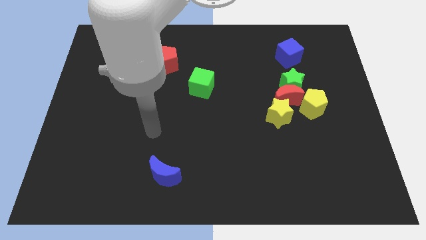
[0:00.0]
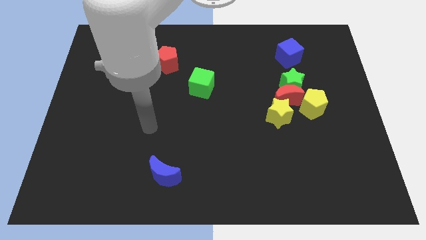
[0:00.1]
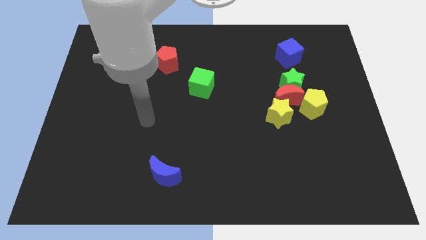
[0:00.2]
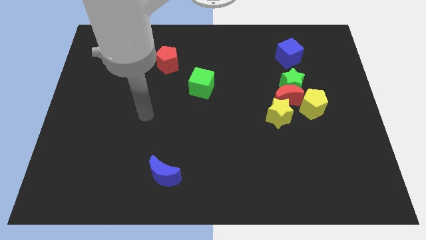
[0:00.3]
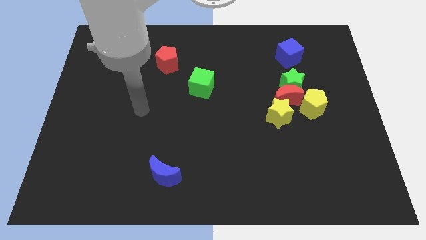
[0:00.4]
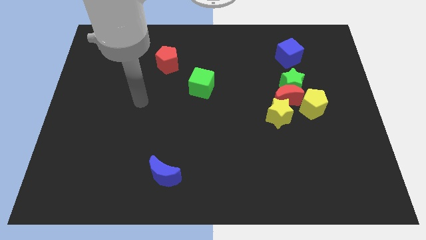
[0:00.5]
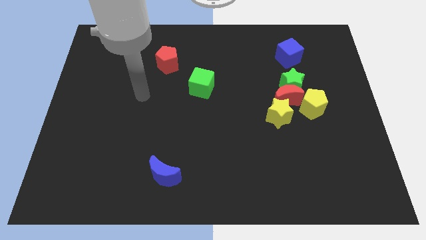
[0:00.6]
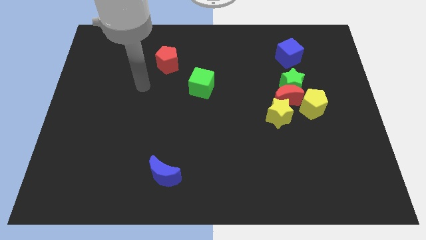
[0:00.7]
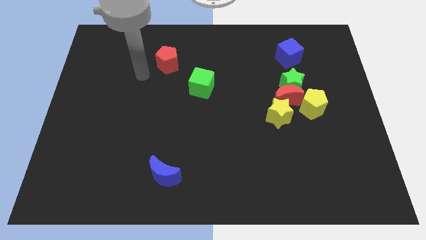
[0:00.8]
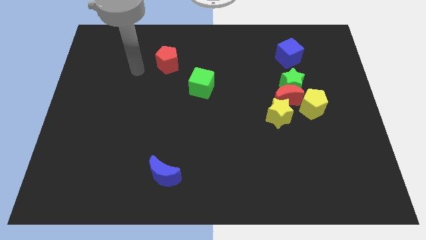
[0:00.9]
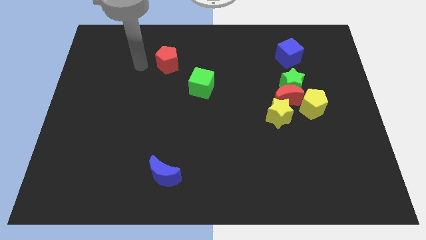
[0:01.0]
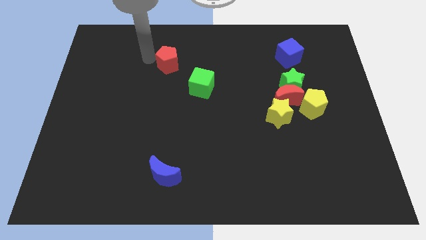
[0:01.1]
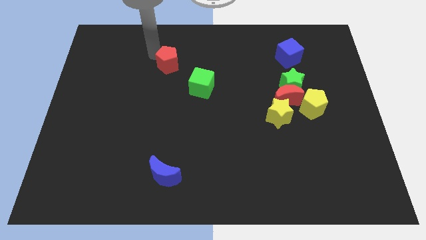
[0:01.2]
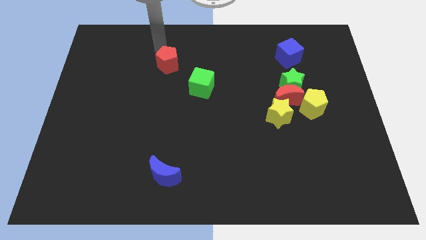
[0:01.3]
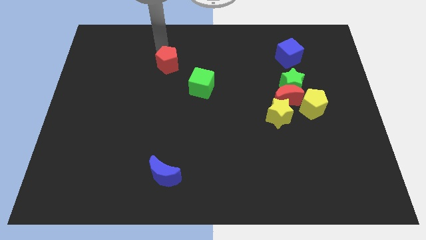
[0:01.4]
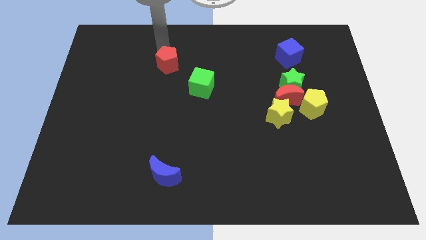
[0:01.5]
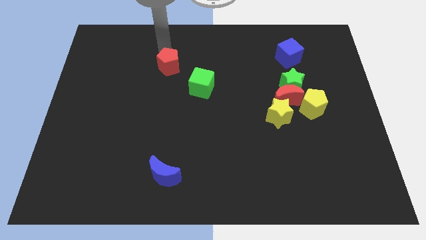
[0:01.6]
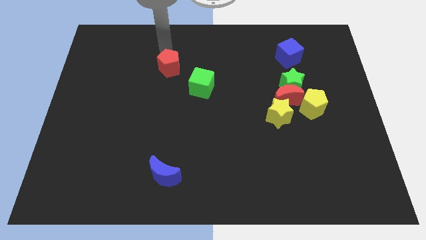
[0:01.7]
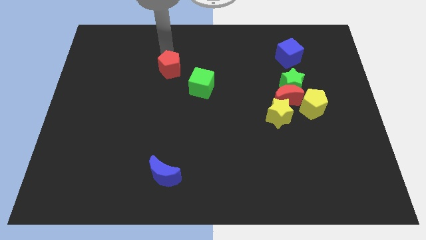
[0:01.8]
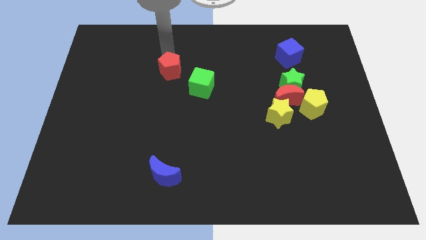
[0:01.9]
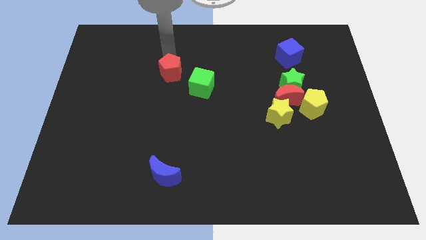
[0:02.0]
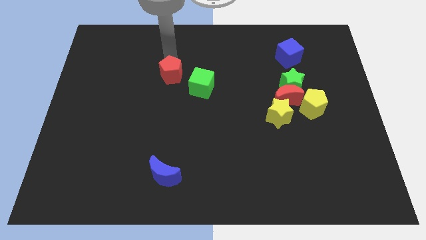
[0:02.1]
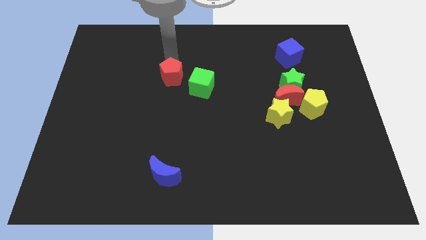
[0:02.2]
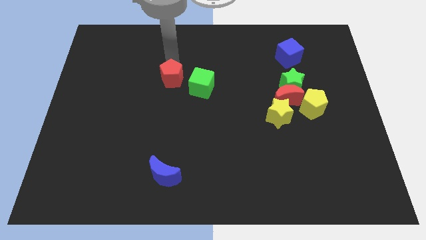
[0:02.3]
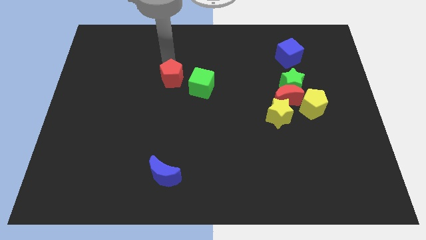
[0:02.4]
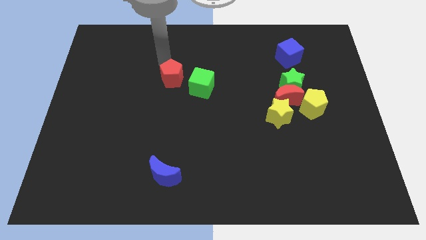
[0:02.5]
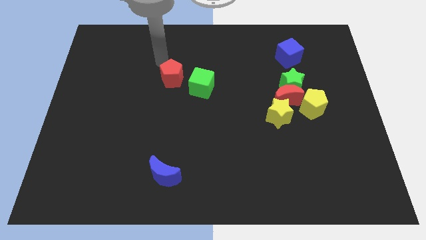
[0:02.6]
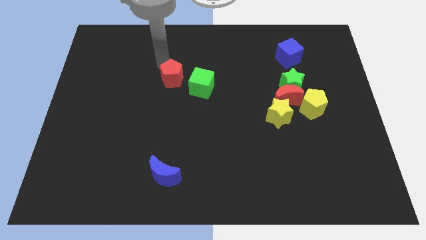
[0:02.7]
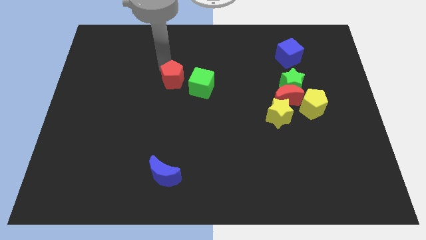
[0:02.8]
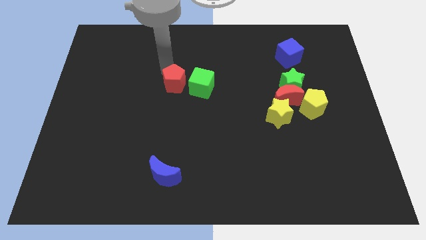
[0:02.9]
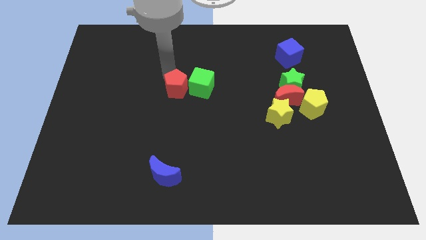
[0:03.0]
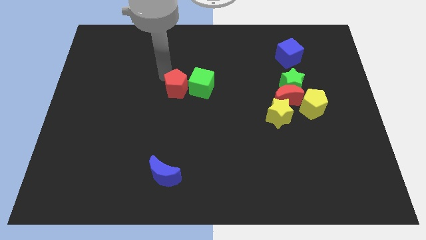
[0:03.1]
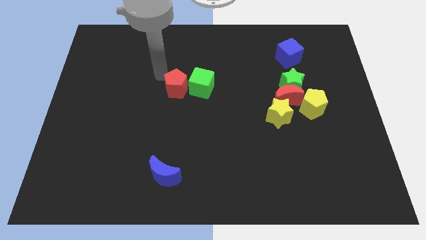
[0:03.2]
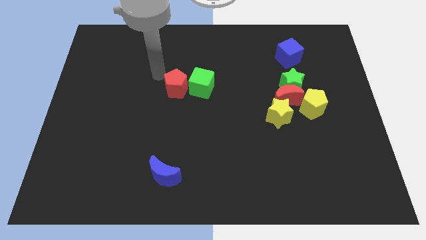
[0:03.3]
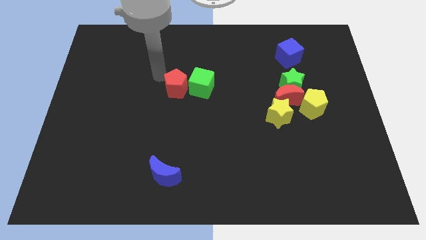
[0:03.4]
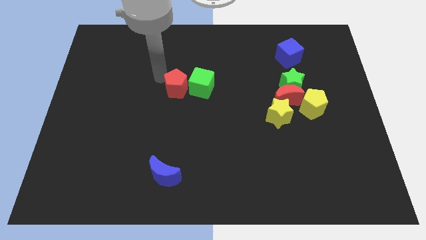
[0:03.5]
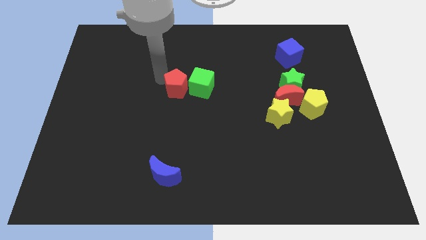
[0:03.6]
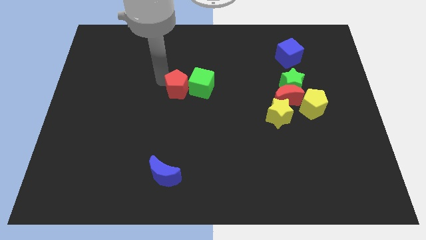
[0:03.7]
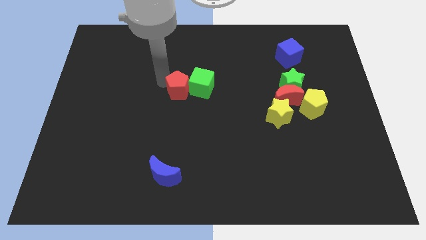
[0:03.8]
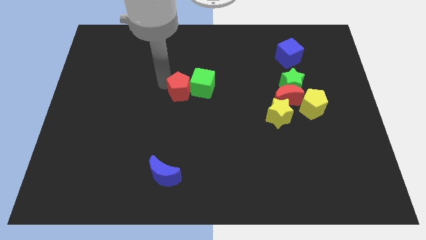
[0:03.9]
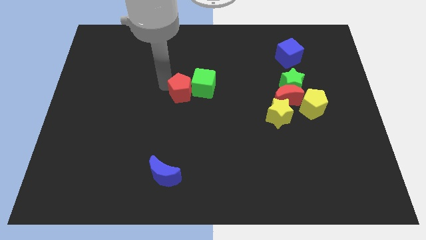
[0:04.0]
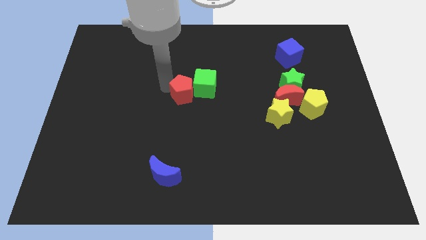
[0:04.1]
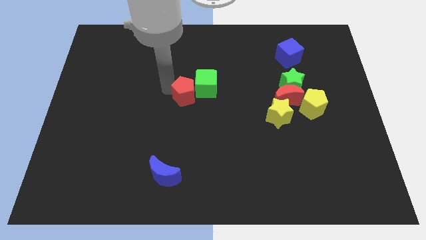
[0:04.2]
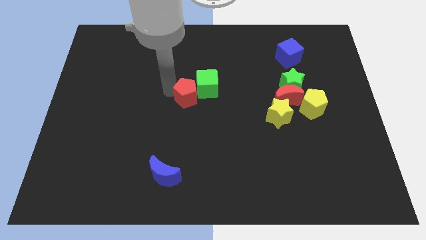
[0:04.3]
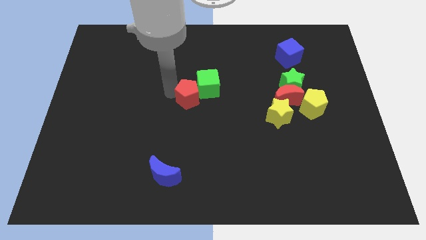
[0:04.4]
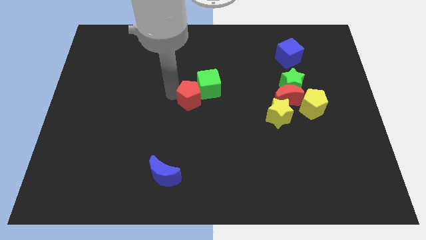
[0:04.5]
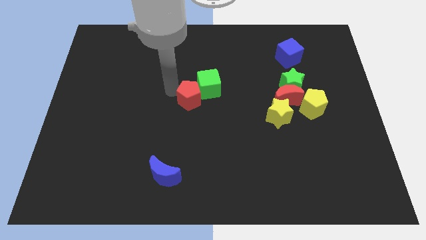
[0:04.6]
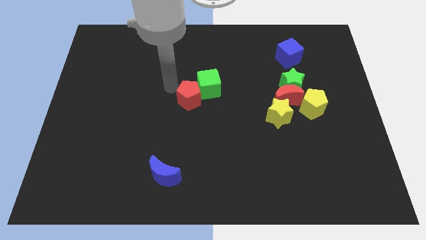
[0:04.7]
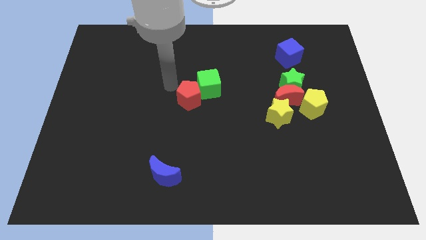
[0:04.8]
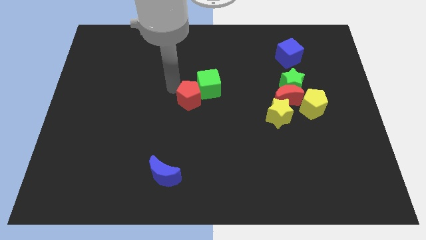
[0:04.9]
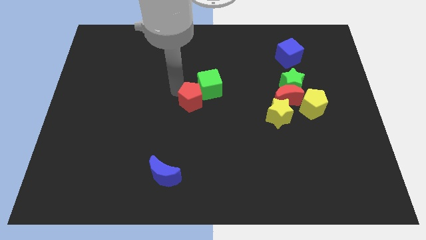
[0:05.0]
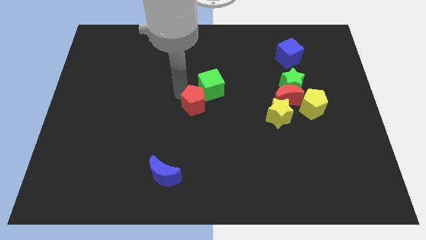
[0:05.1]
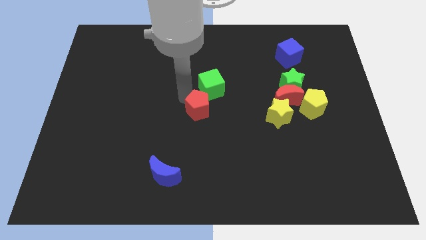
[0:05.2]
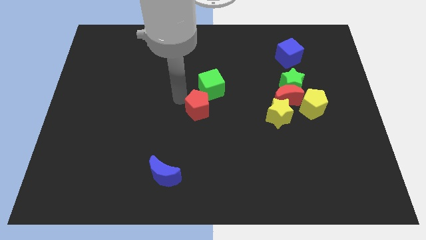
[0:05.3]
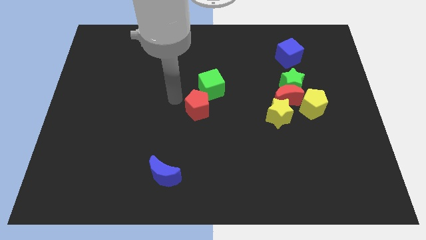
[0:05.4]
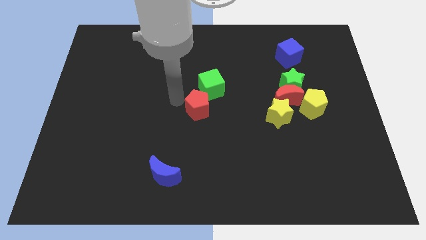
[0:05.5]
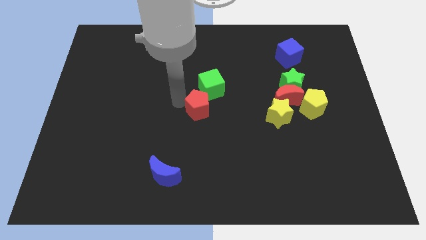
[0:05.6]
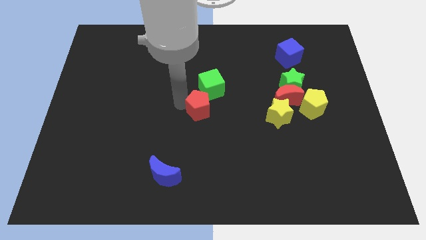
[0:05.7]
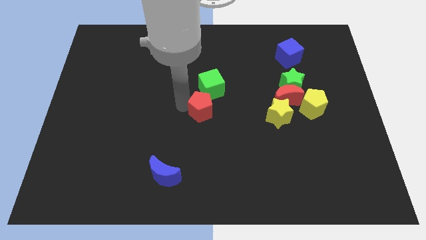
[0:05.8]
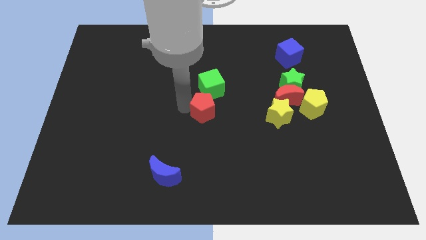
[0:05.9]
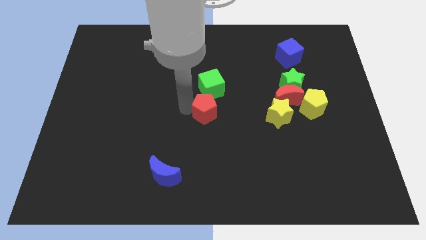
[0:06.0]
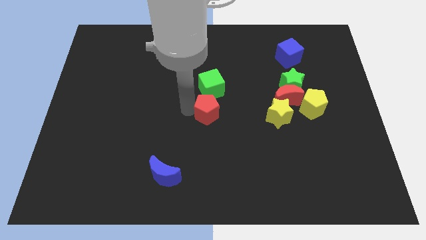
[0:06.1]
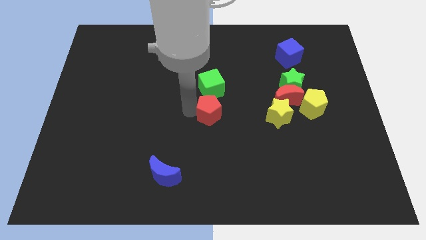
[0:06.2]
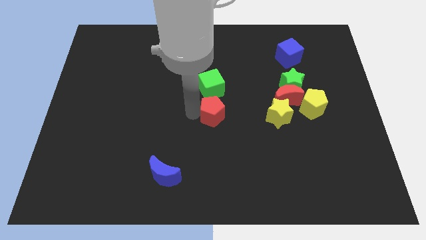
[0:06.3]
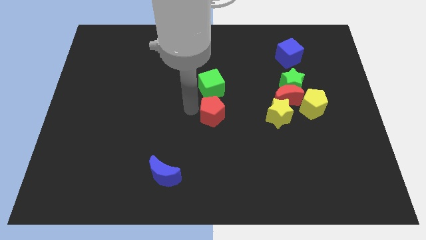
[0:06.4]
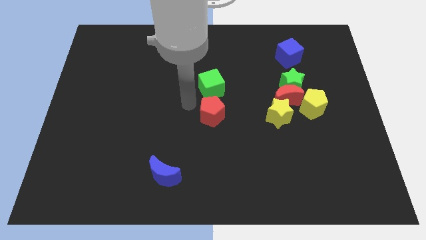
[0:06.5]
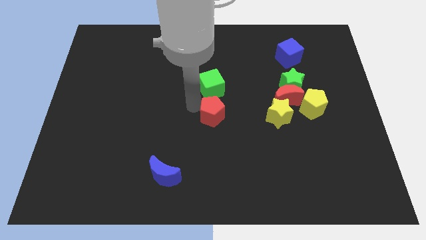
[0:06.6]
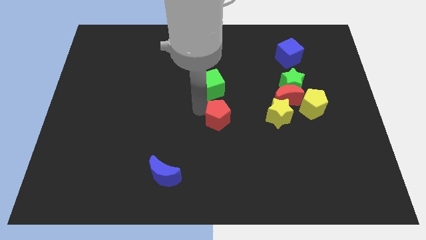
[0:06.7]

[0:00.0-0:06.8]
move the red pentagon diagonally downwards and right

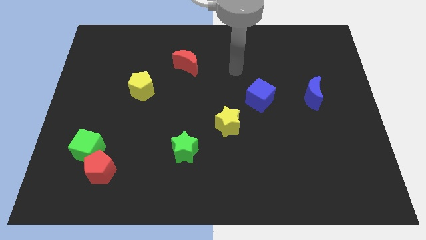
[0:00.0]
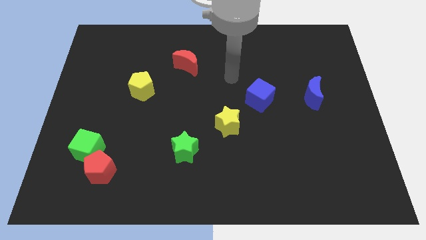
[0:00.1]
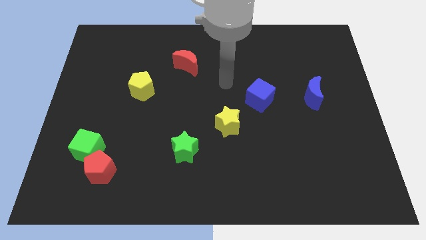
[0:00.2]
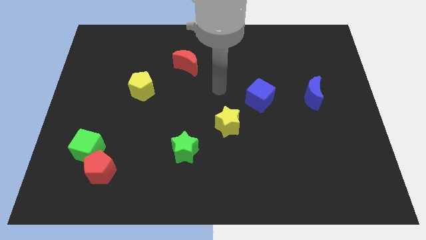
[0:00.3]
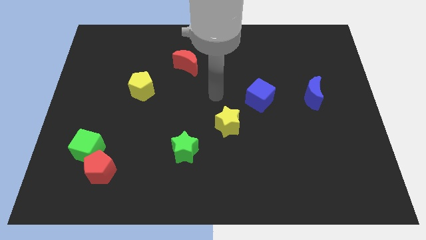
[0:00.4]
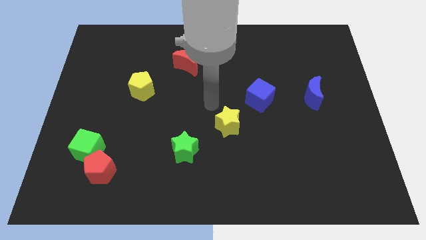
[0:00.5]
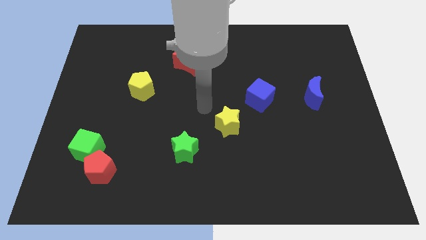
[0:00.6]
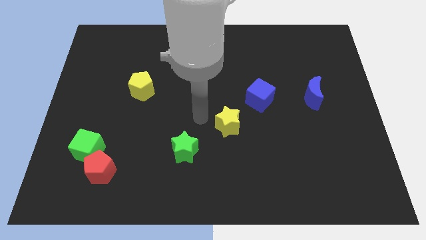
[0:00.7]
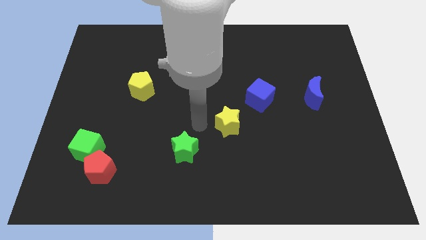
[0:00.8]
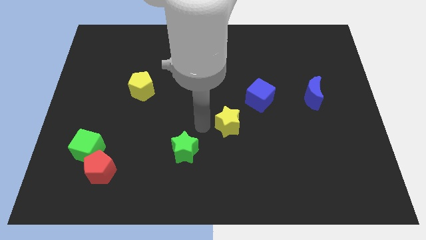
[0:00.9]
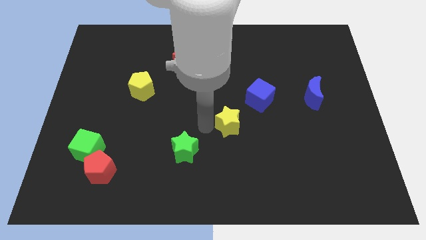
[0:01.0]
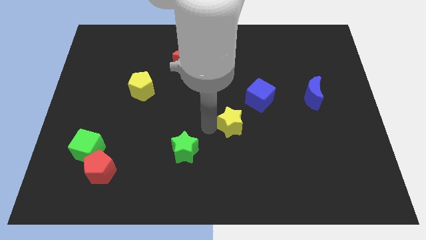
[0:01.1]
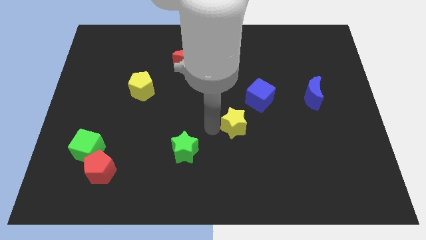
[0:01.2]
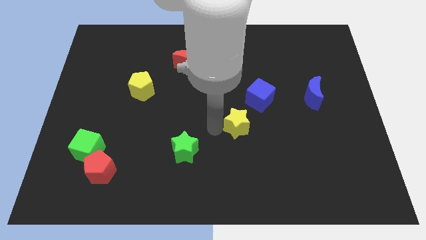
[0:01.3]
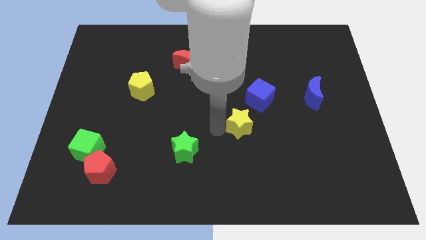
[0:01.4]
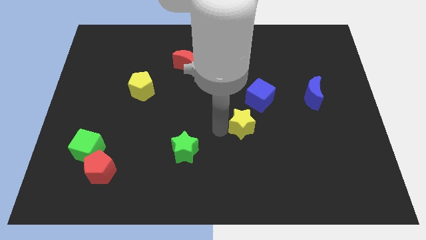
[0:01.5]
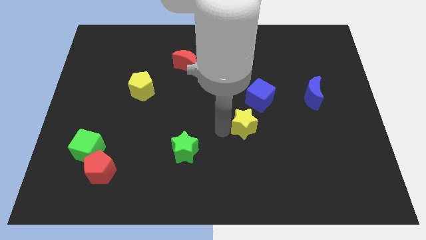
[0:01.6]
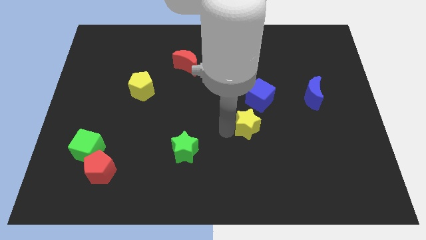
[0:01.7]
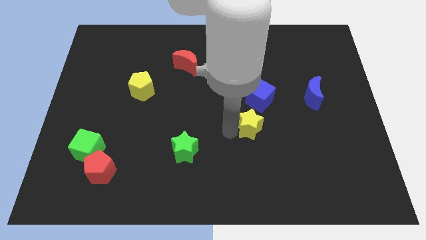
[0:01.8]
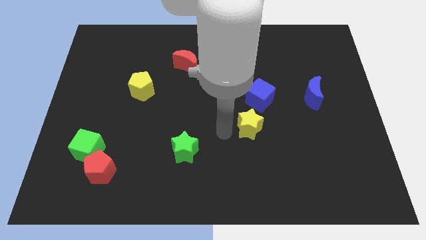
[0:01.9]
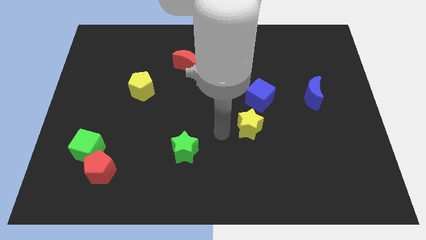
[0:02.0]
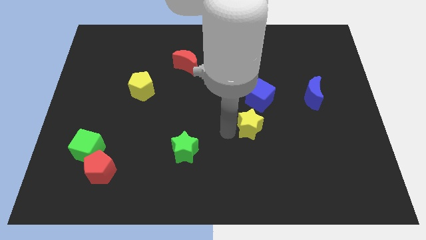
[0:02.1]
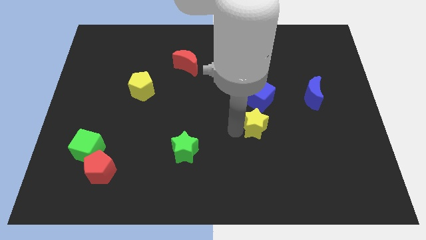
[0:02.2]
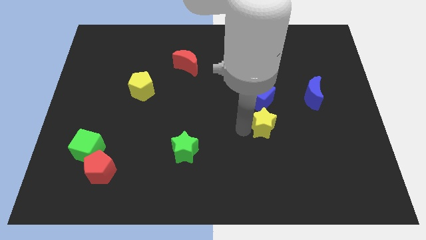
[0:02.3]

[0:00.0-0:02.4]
push the yellow star somewhat right
